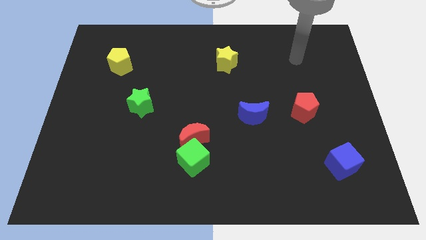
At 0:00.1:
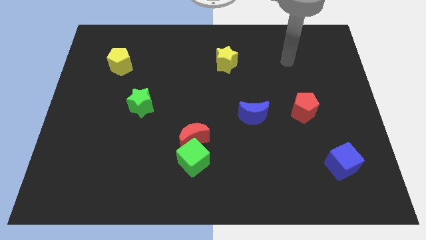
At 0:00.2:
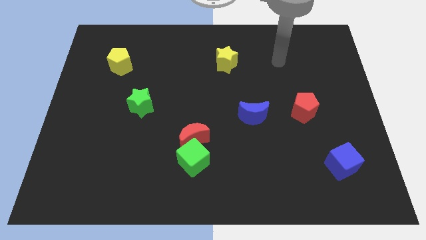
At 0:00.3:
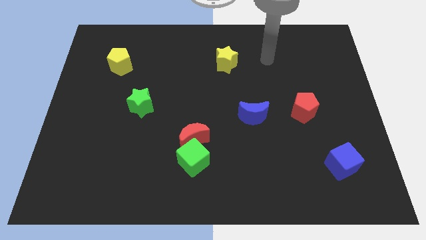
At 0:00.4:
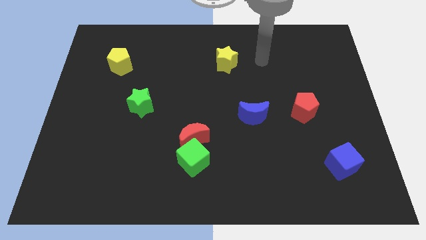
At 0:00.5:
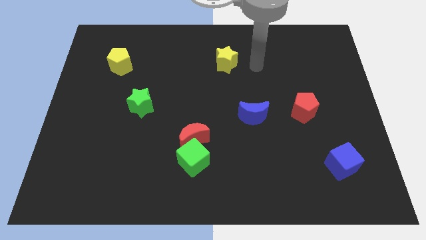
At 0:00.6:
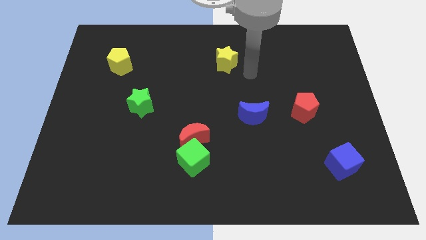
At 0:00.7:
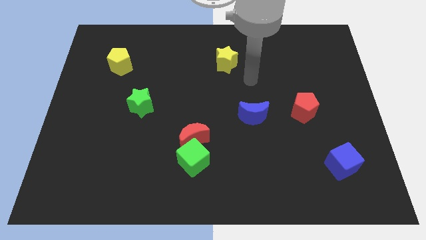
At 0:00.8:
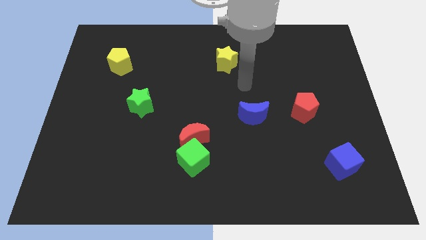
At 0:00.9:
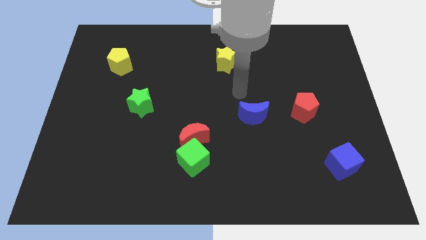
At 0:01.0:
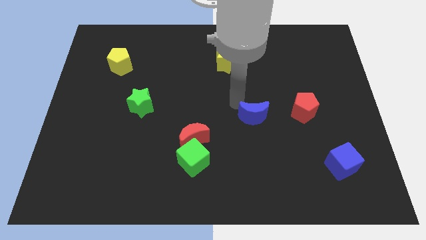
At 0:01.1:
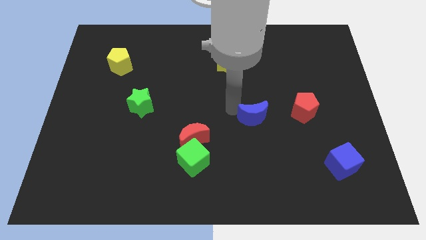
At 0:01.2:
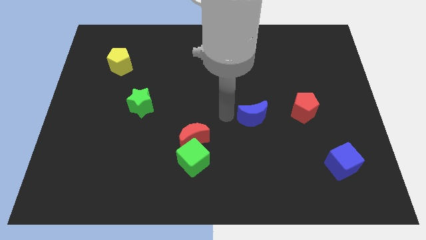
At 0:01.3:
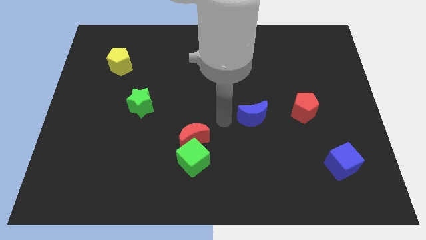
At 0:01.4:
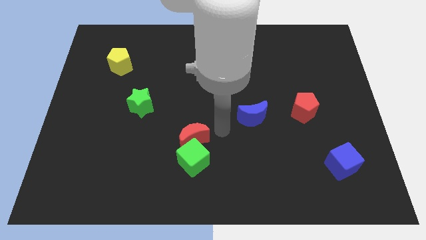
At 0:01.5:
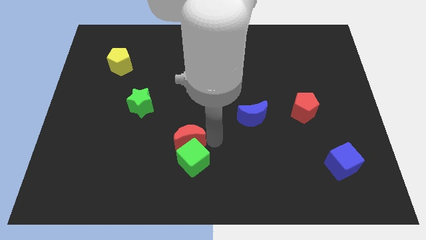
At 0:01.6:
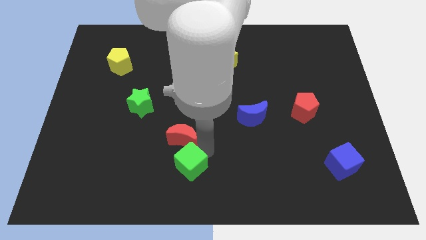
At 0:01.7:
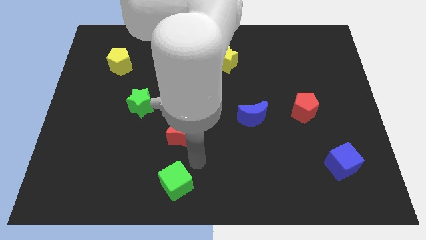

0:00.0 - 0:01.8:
pull the red moon apart from the green cube

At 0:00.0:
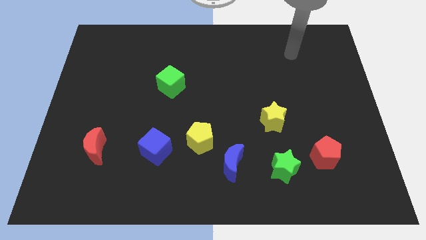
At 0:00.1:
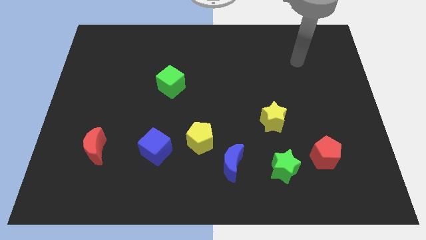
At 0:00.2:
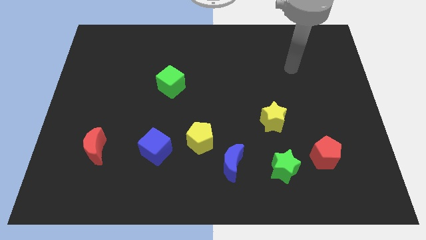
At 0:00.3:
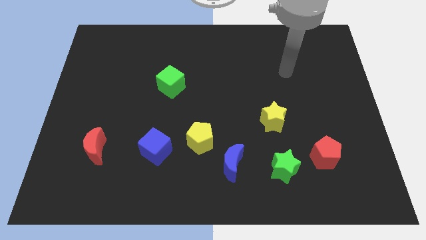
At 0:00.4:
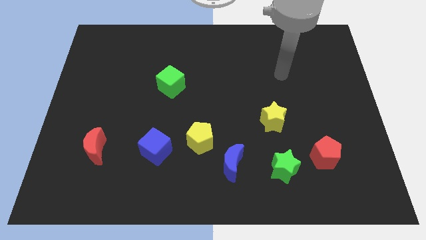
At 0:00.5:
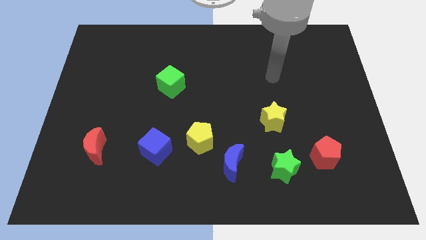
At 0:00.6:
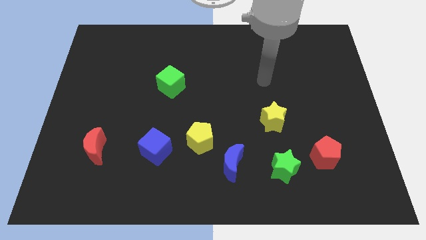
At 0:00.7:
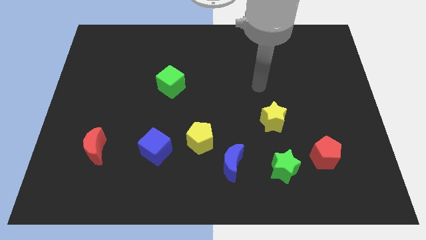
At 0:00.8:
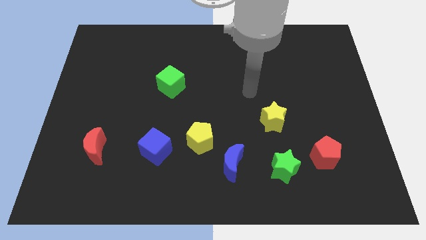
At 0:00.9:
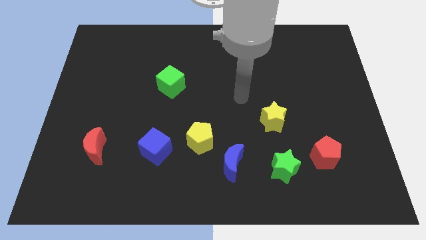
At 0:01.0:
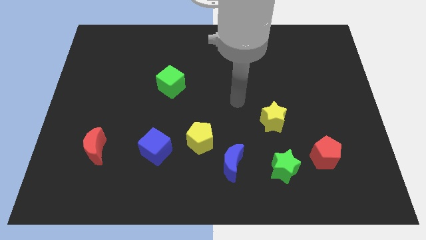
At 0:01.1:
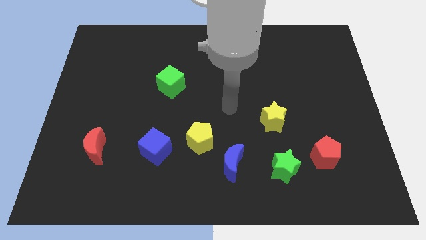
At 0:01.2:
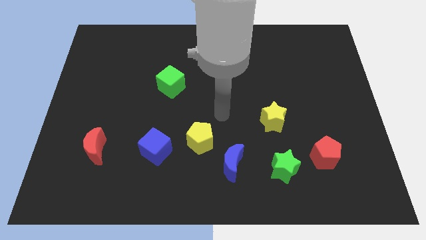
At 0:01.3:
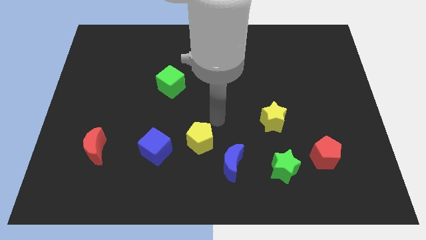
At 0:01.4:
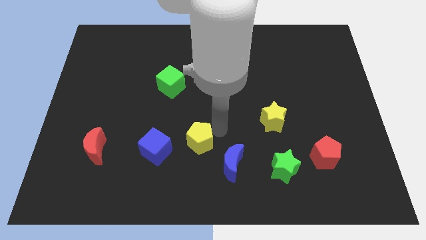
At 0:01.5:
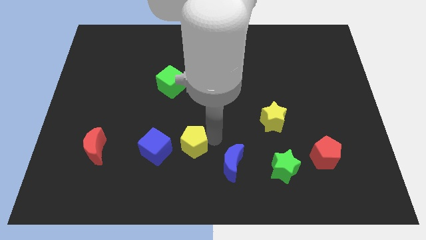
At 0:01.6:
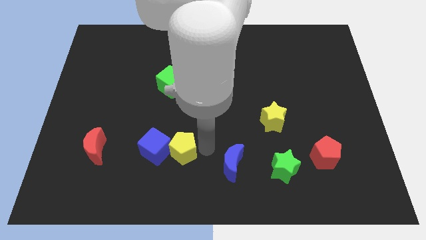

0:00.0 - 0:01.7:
pull the blue moon apart from the yellow pentagon

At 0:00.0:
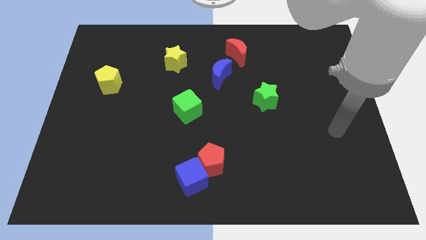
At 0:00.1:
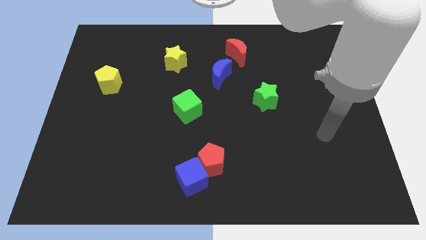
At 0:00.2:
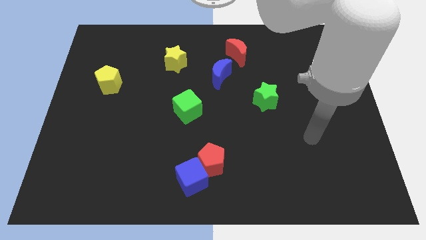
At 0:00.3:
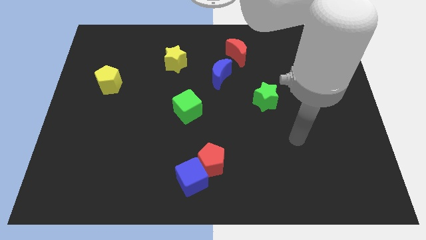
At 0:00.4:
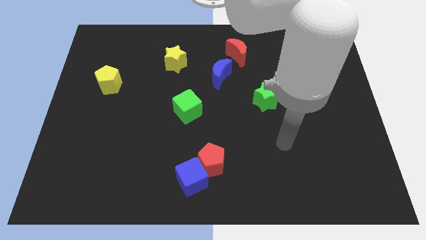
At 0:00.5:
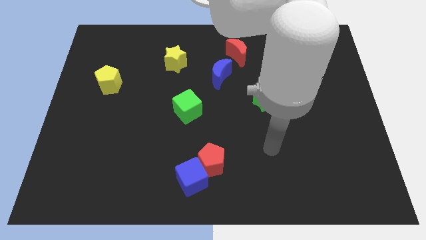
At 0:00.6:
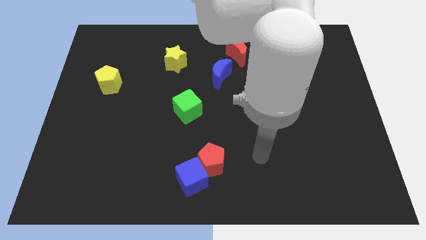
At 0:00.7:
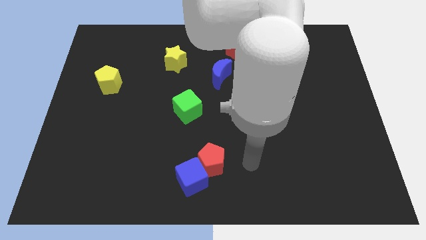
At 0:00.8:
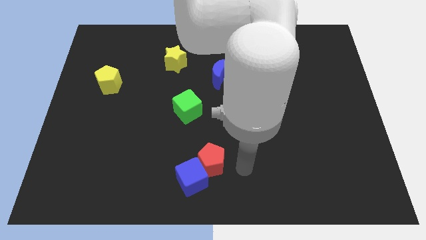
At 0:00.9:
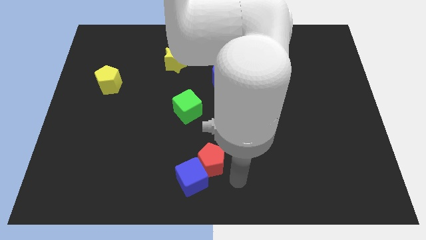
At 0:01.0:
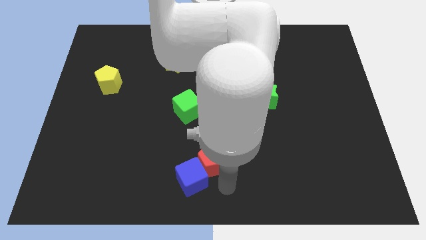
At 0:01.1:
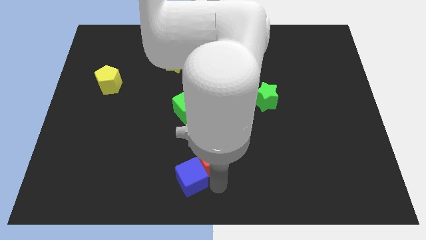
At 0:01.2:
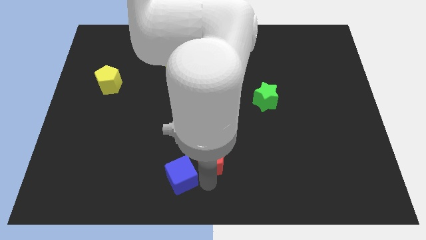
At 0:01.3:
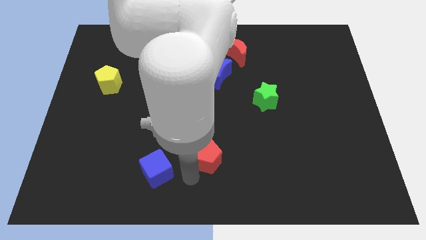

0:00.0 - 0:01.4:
pull the red pentagon apart from the blue cube

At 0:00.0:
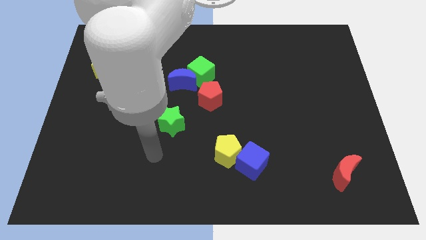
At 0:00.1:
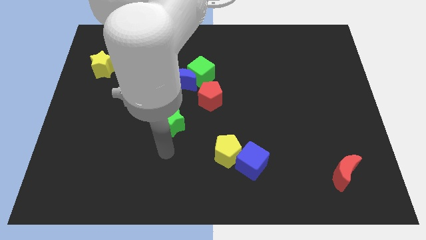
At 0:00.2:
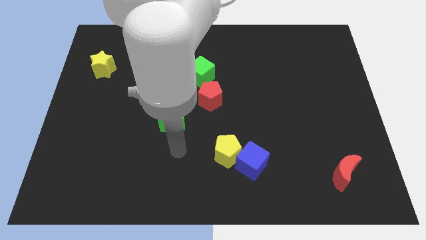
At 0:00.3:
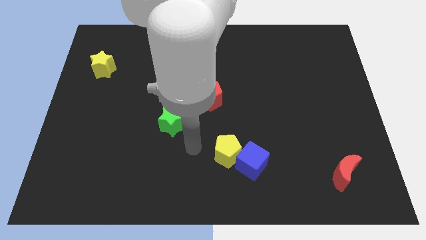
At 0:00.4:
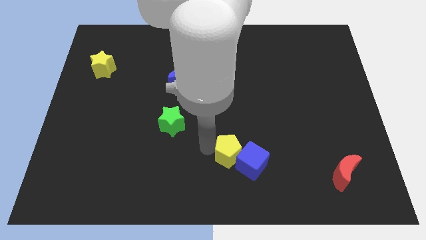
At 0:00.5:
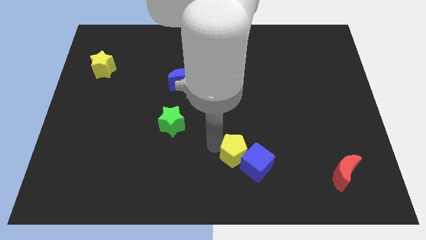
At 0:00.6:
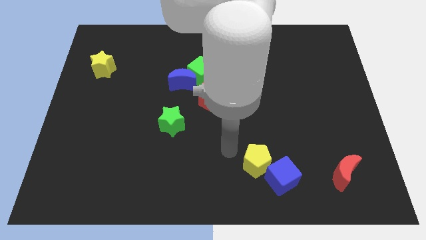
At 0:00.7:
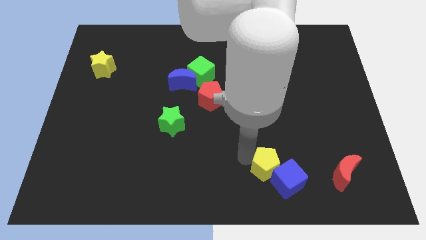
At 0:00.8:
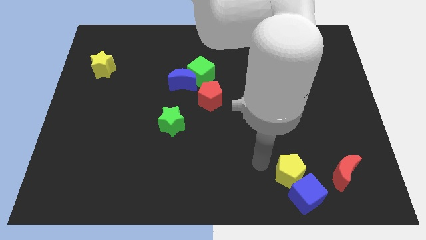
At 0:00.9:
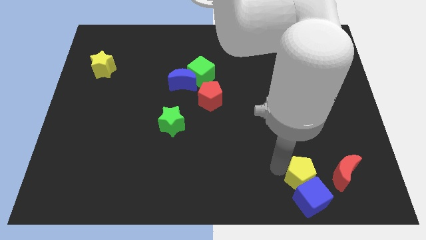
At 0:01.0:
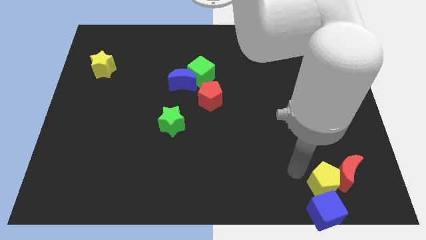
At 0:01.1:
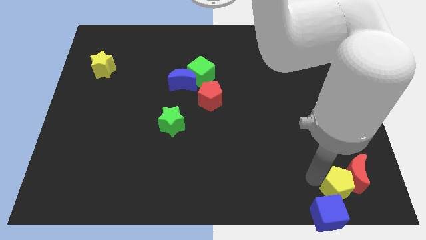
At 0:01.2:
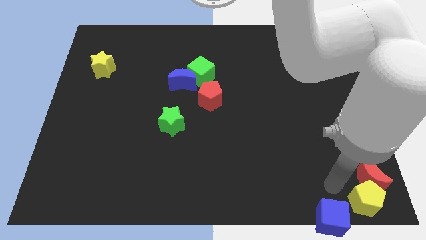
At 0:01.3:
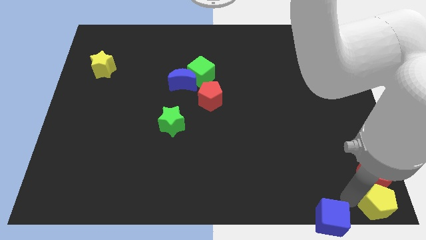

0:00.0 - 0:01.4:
separate the blue cube from the yellow pentagon

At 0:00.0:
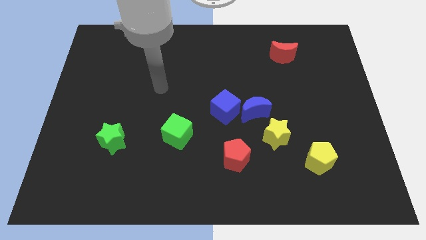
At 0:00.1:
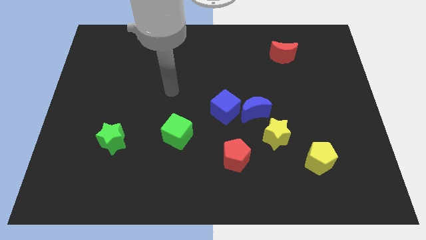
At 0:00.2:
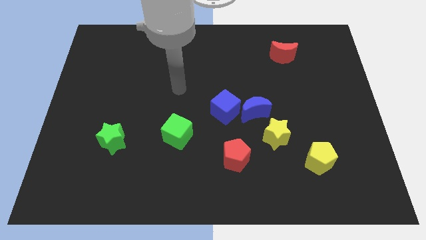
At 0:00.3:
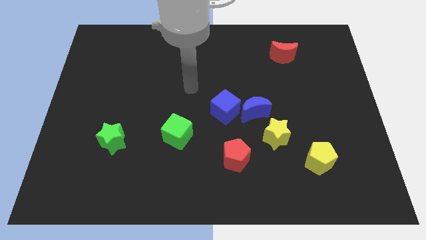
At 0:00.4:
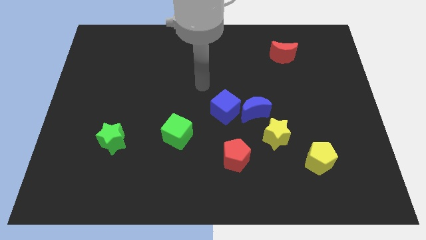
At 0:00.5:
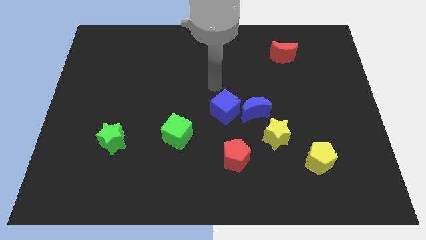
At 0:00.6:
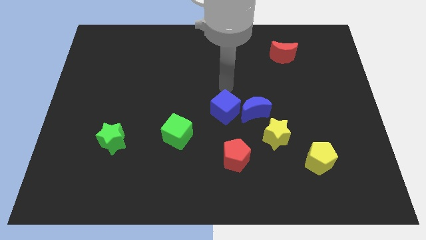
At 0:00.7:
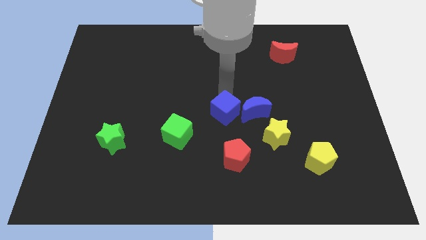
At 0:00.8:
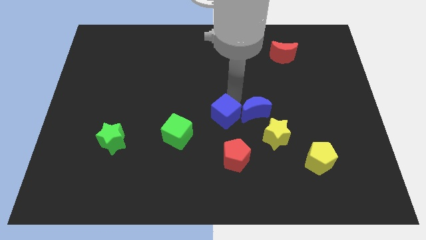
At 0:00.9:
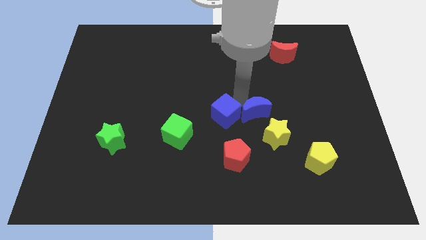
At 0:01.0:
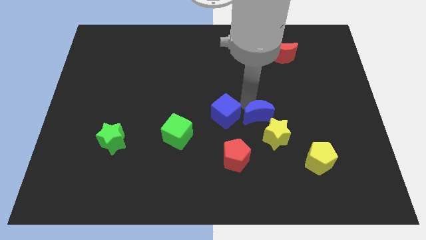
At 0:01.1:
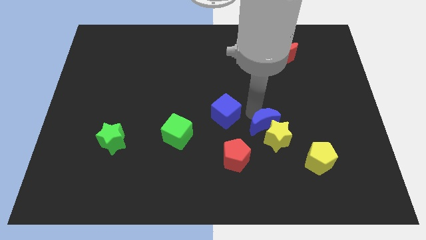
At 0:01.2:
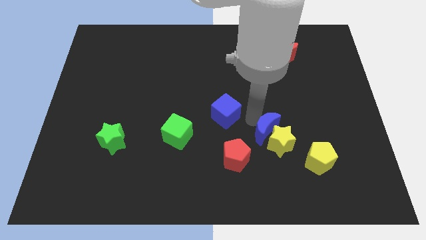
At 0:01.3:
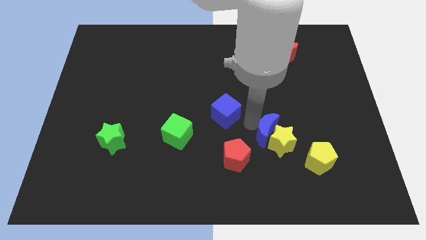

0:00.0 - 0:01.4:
pull the blue cube apart from the blue moon

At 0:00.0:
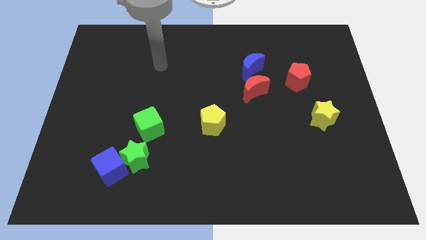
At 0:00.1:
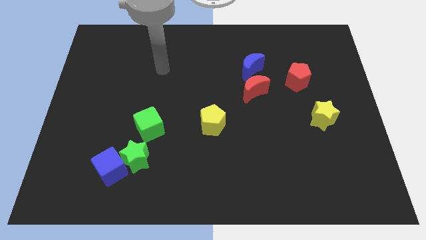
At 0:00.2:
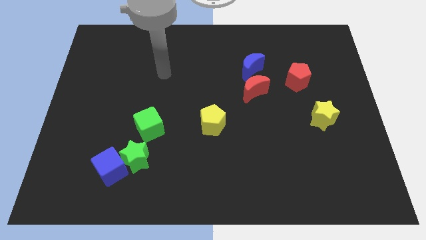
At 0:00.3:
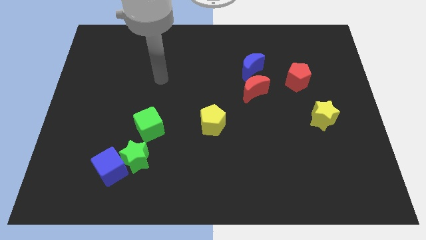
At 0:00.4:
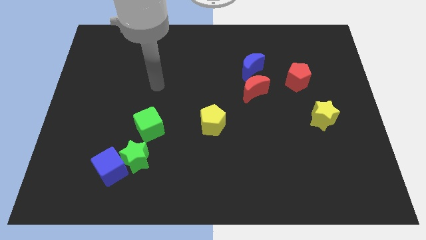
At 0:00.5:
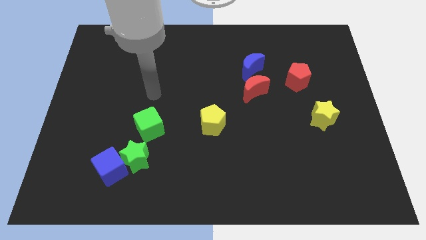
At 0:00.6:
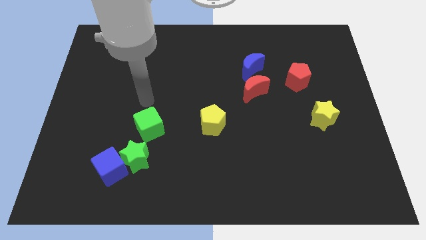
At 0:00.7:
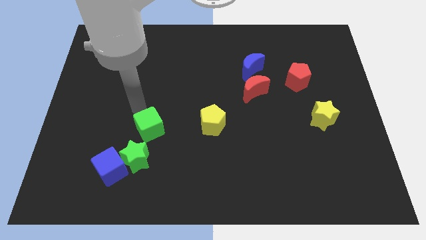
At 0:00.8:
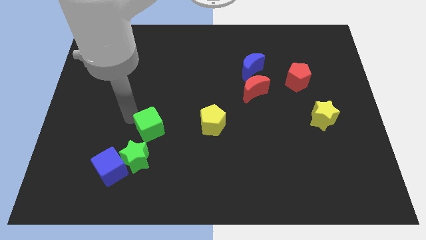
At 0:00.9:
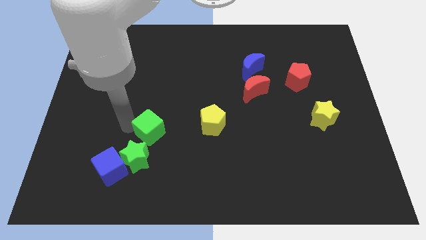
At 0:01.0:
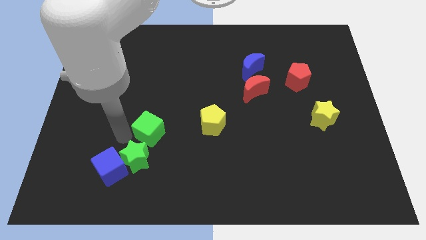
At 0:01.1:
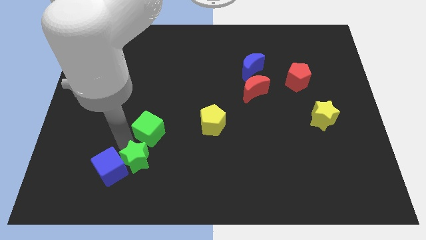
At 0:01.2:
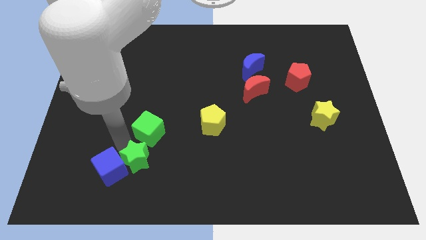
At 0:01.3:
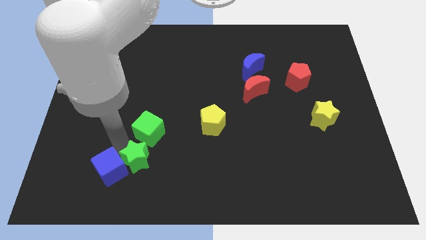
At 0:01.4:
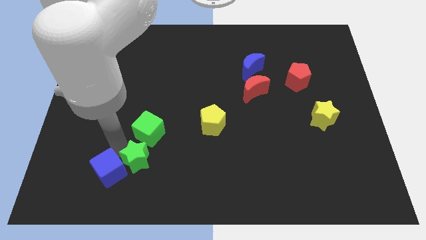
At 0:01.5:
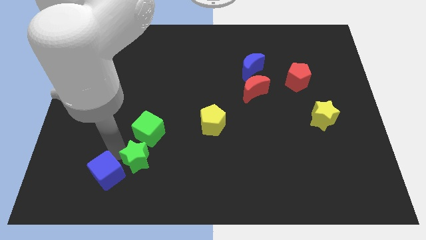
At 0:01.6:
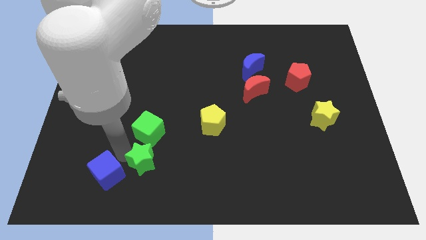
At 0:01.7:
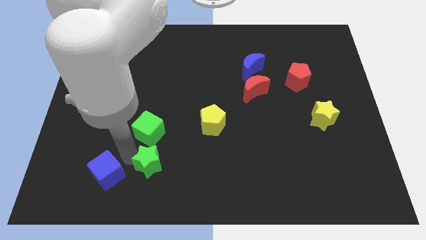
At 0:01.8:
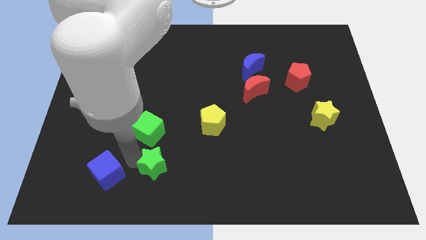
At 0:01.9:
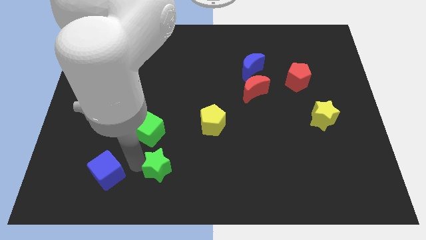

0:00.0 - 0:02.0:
separate the blue cube from the green star
